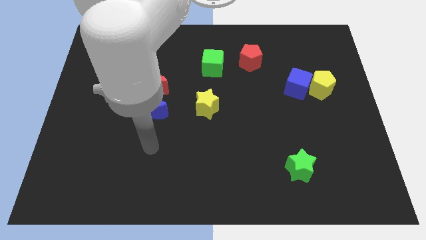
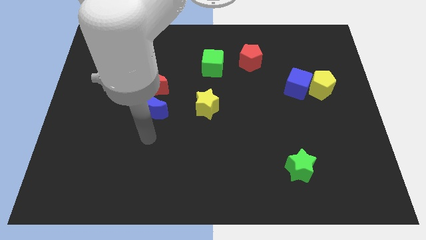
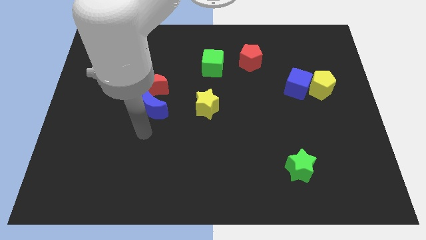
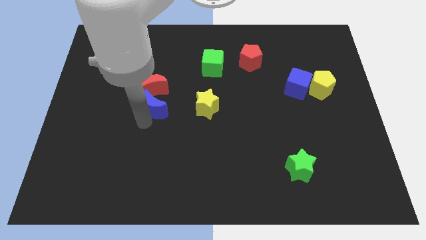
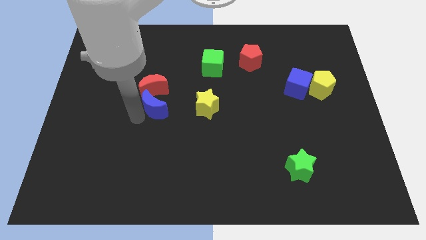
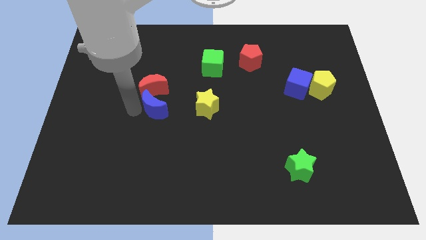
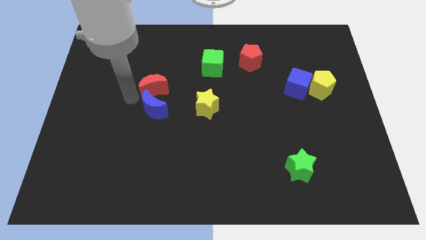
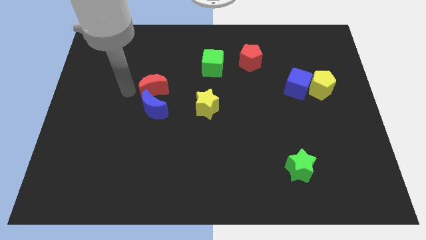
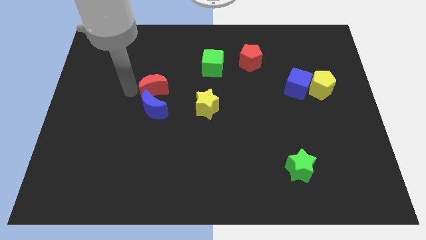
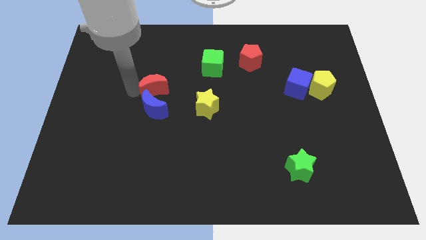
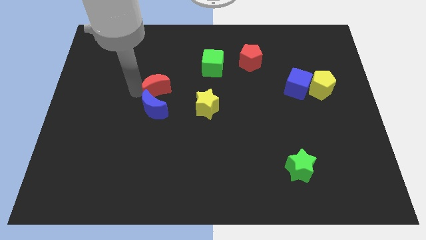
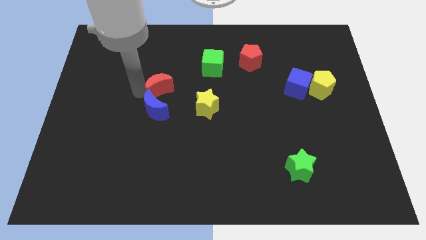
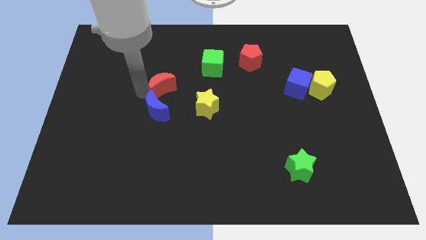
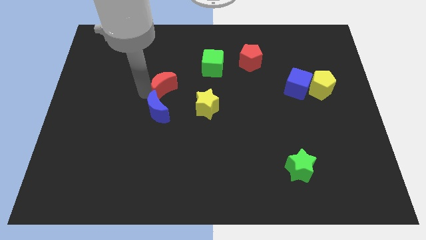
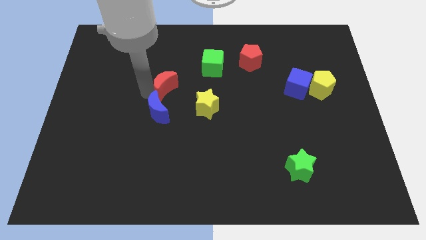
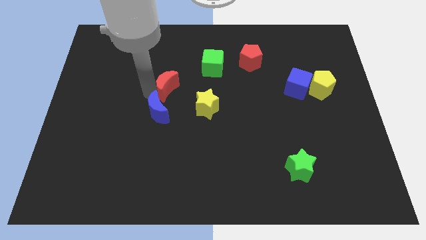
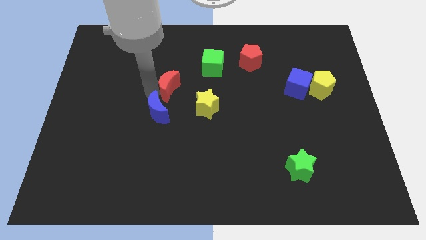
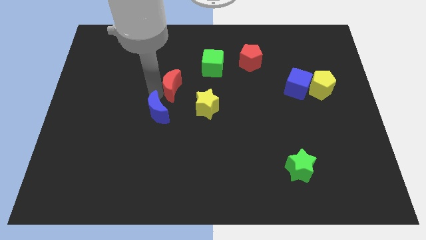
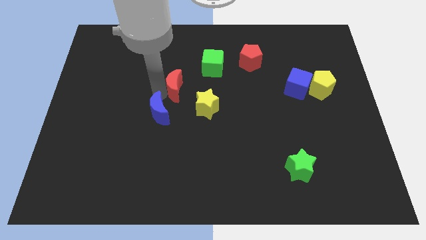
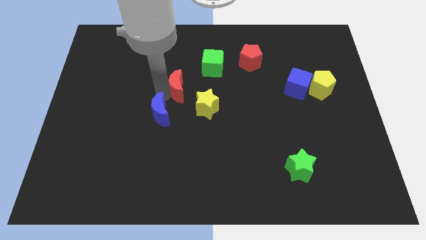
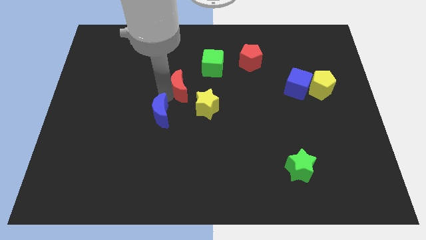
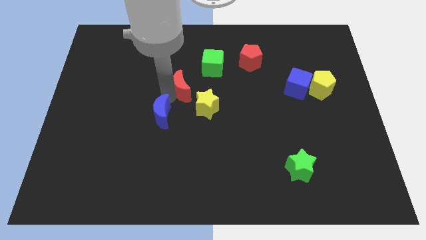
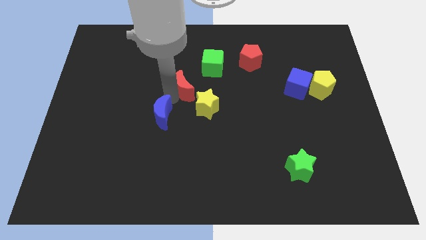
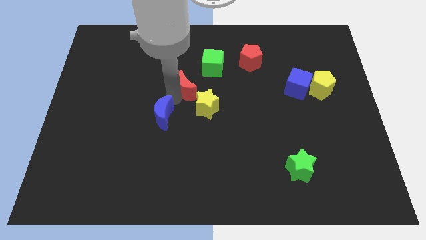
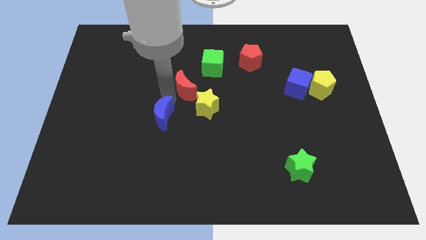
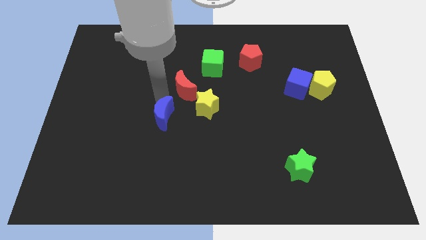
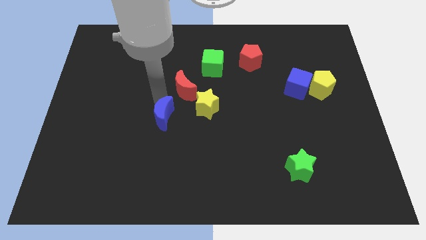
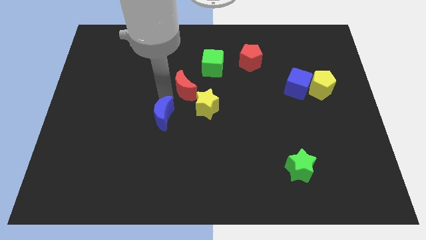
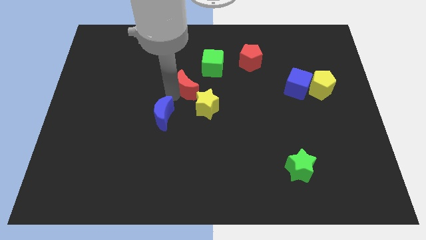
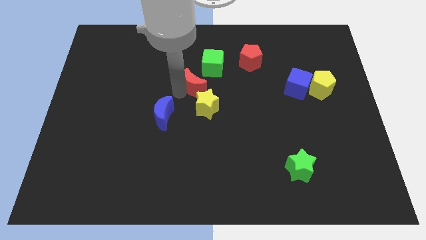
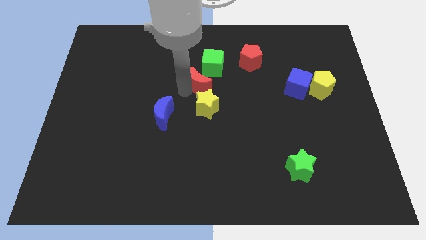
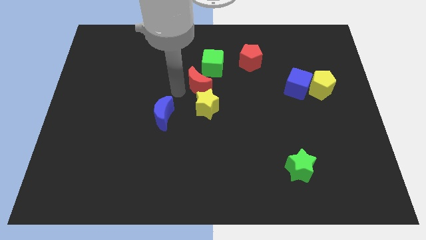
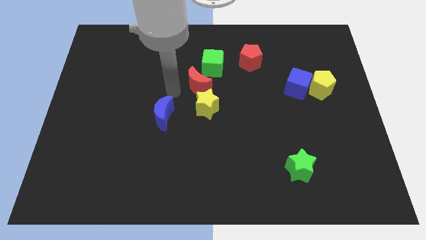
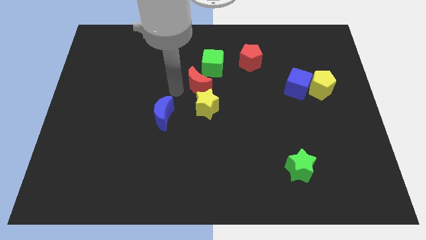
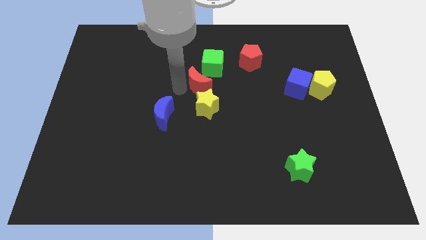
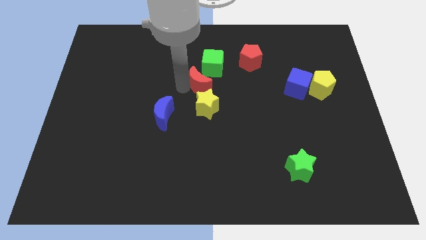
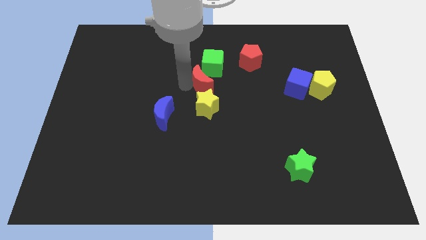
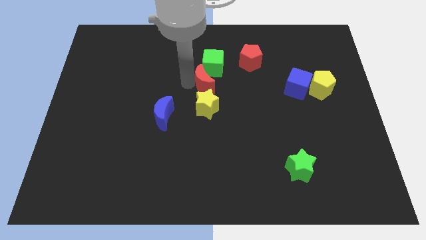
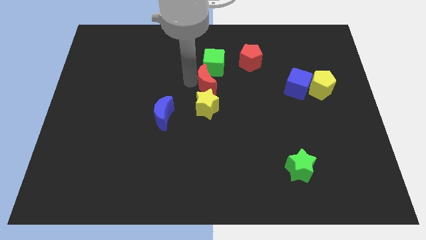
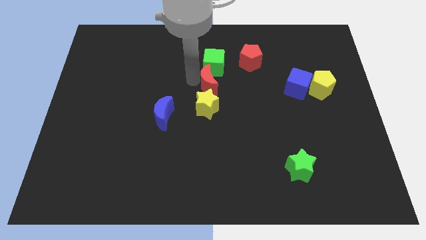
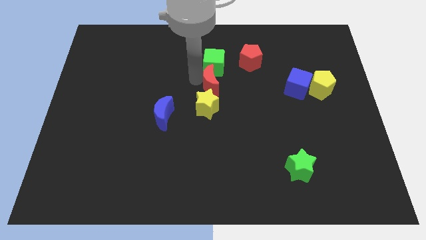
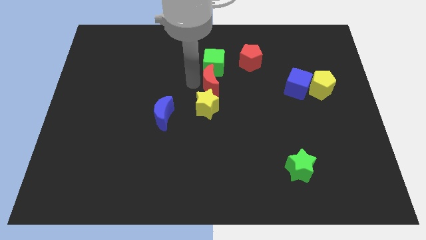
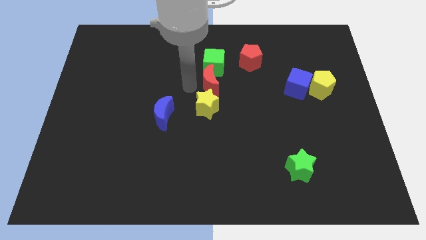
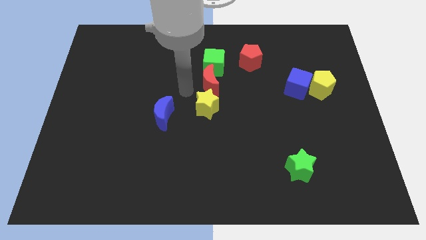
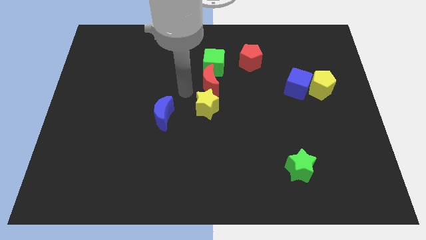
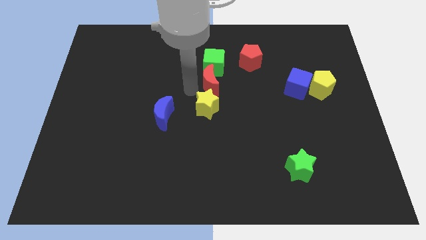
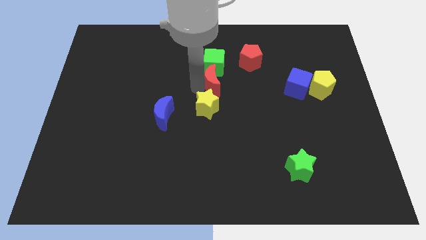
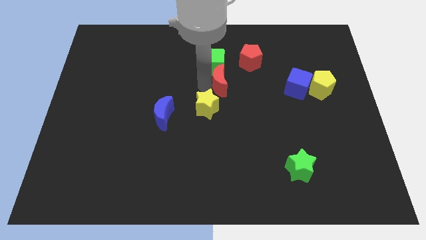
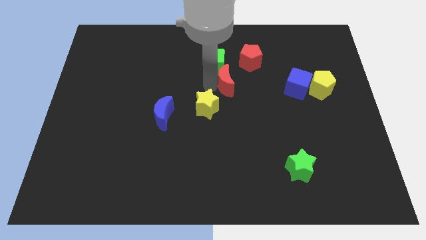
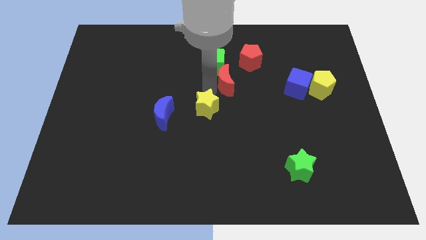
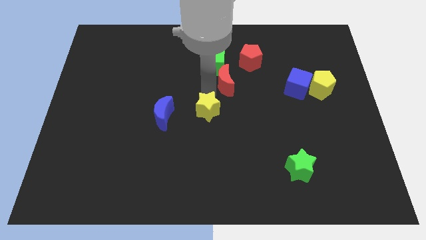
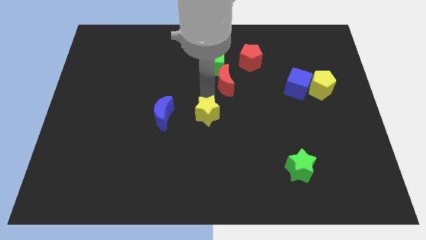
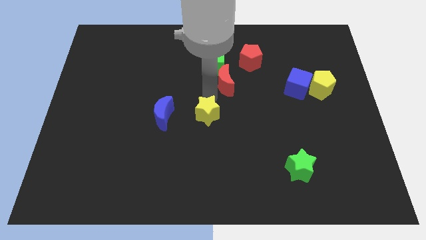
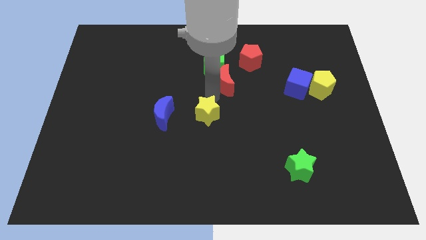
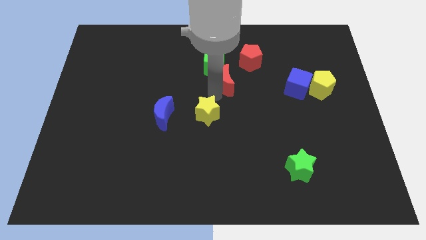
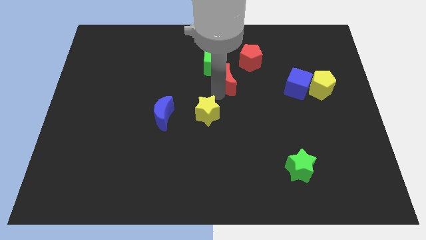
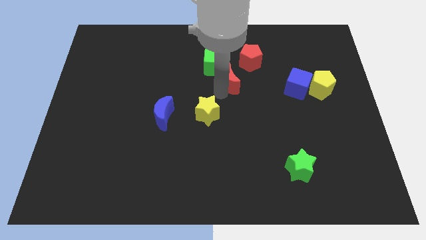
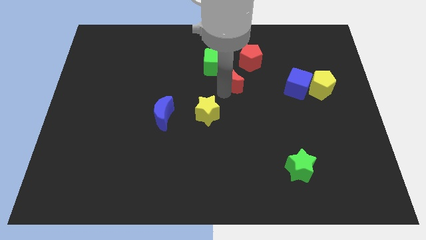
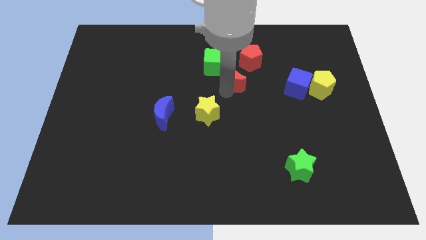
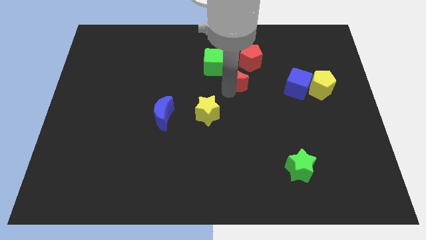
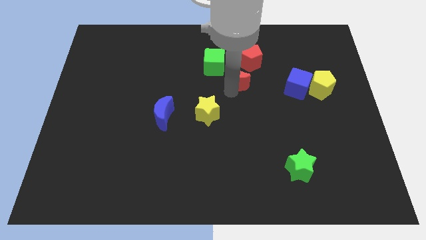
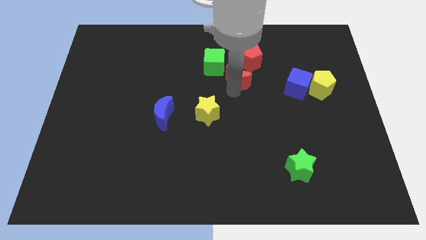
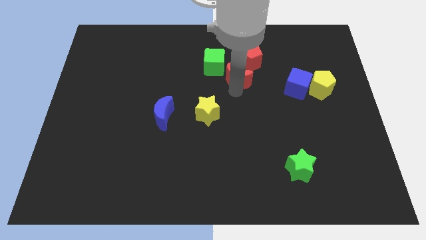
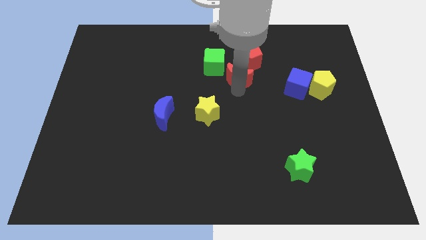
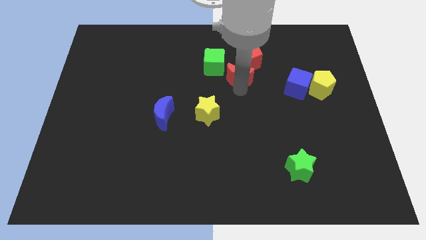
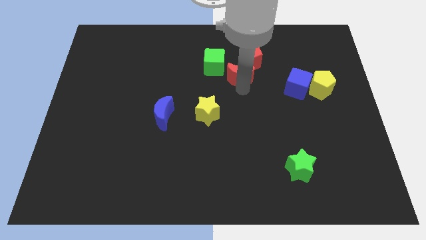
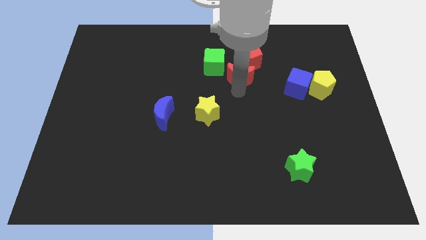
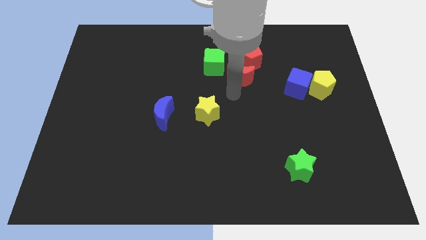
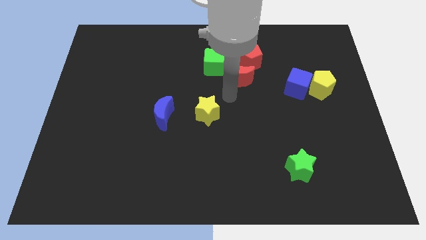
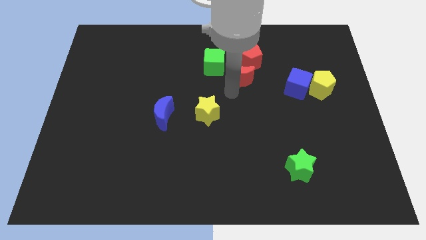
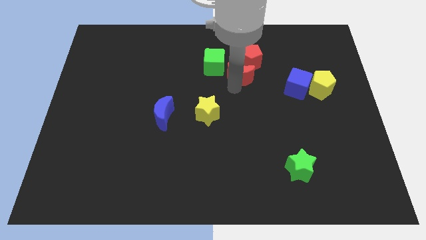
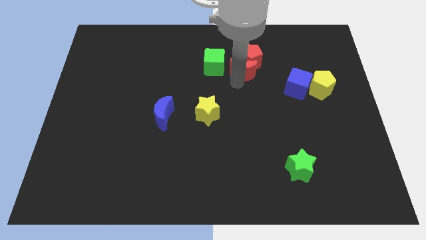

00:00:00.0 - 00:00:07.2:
slide the red moon next to the red pentagon
